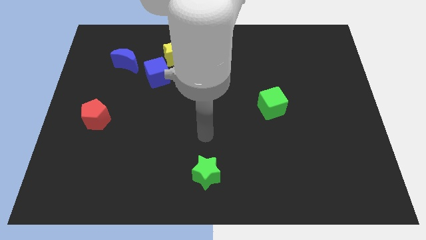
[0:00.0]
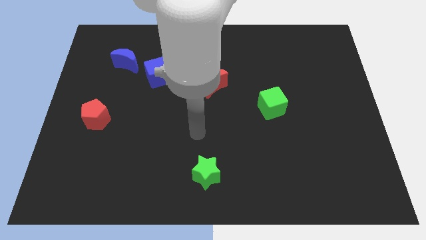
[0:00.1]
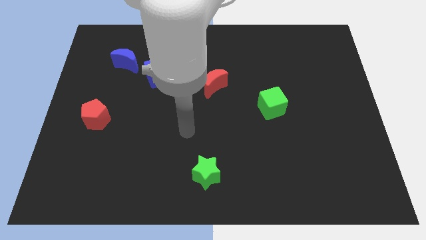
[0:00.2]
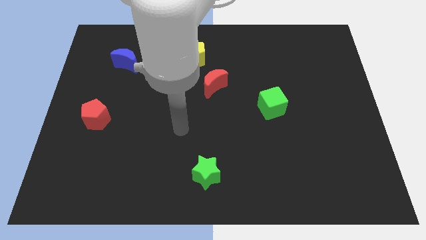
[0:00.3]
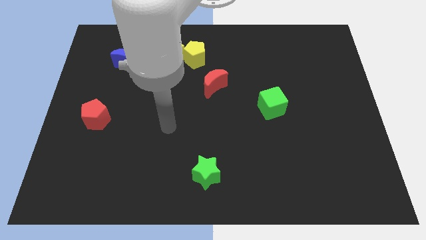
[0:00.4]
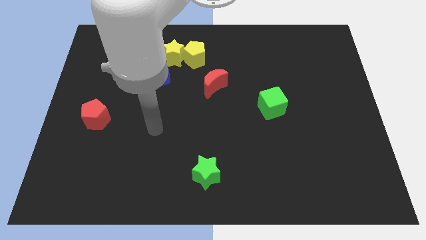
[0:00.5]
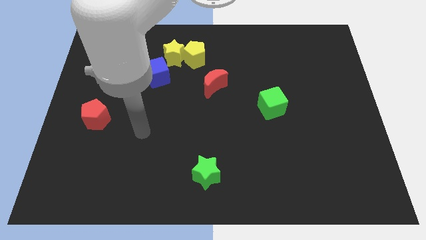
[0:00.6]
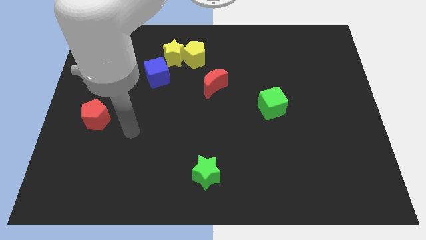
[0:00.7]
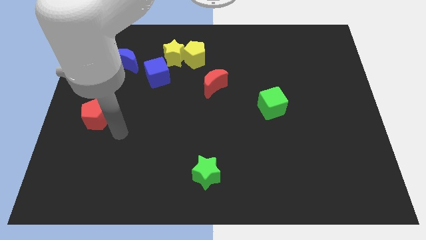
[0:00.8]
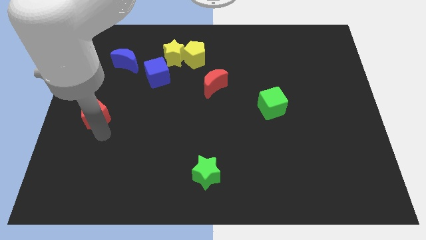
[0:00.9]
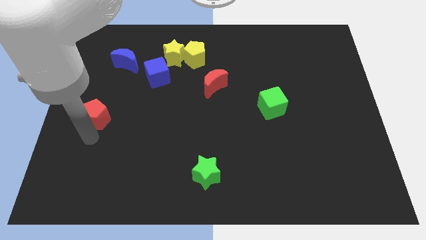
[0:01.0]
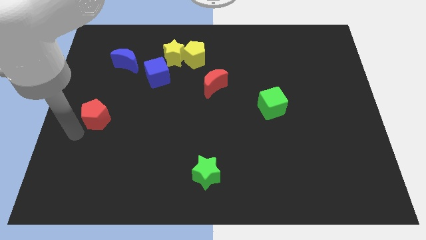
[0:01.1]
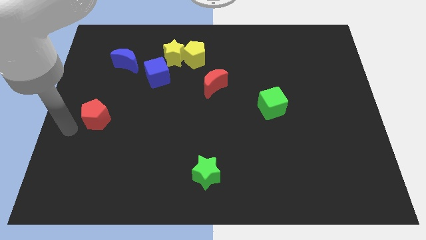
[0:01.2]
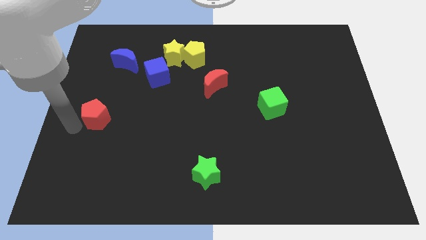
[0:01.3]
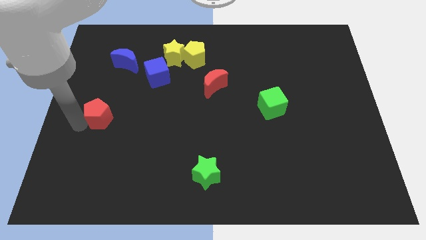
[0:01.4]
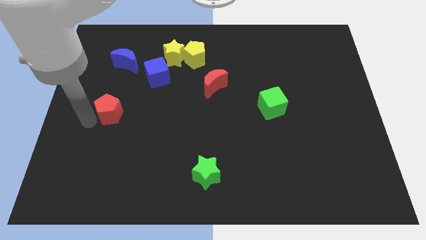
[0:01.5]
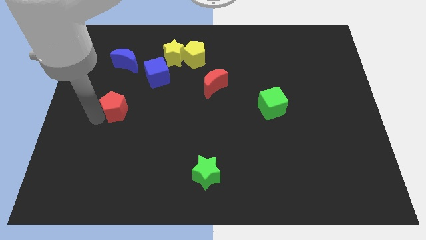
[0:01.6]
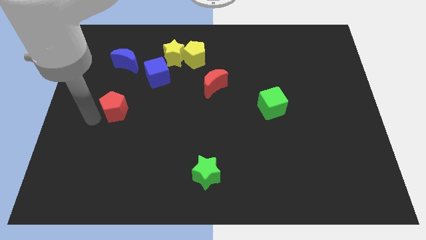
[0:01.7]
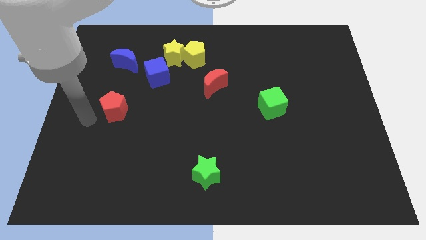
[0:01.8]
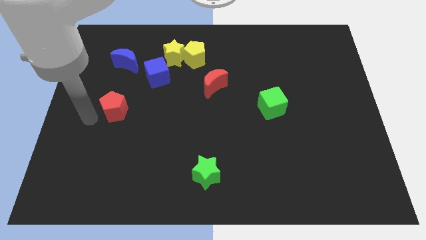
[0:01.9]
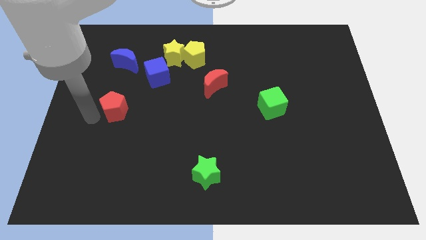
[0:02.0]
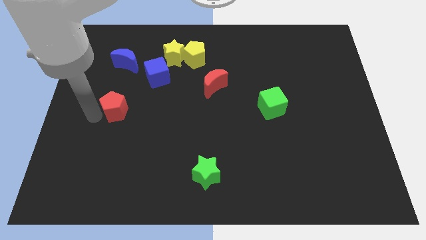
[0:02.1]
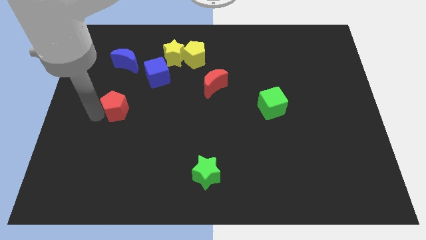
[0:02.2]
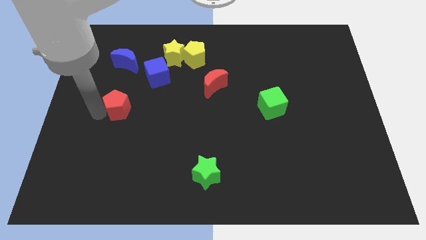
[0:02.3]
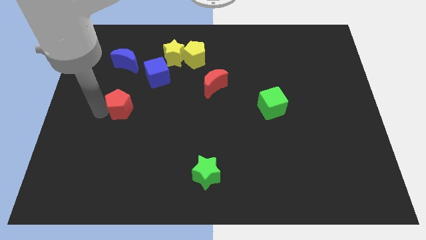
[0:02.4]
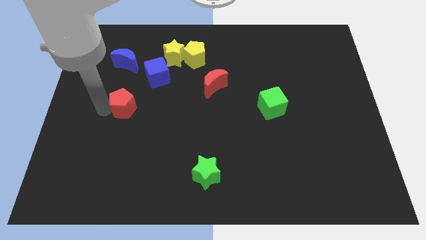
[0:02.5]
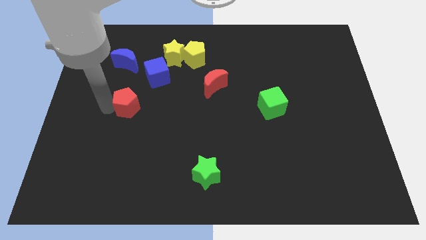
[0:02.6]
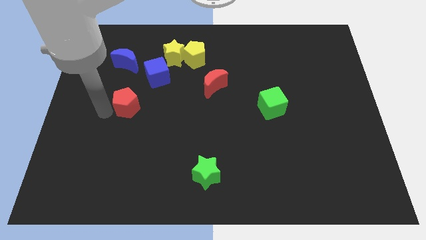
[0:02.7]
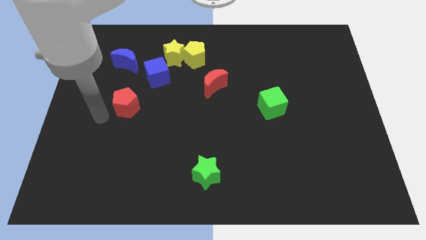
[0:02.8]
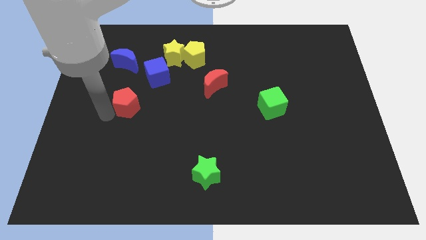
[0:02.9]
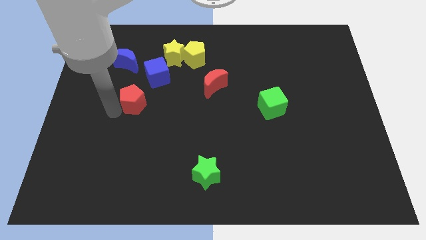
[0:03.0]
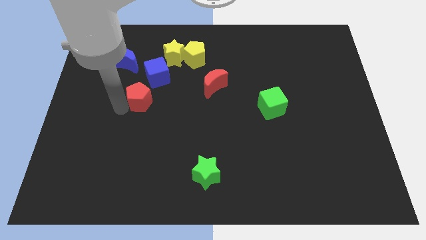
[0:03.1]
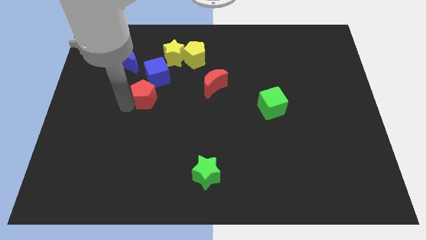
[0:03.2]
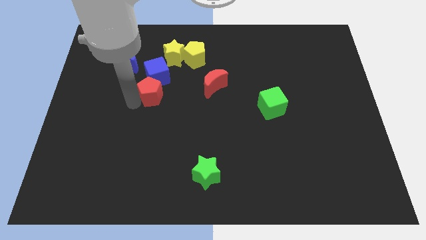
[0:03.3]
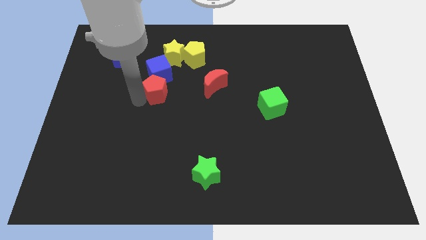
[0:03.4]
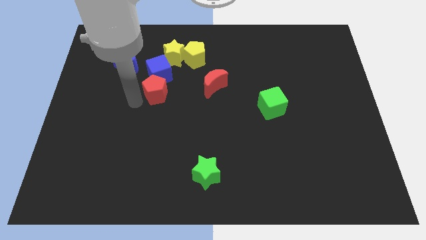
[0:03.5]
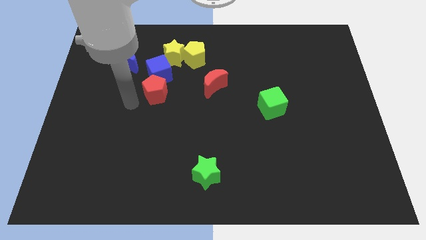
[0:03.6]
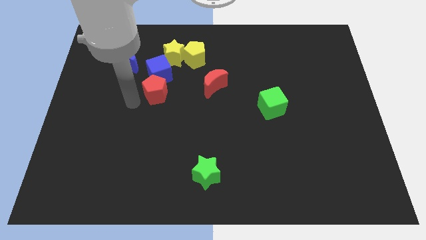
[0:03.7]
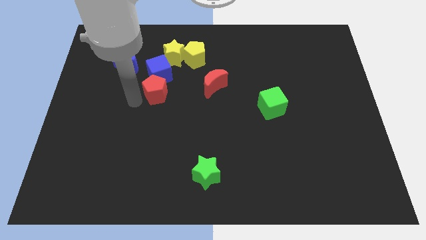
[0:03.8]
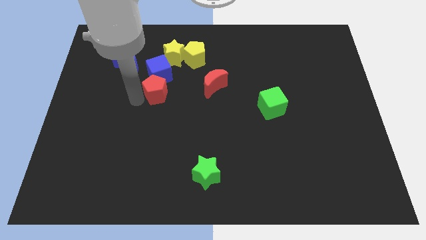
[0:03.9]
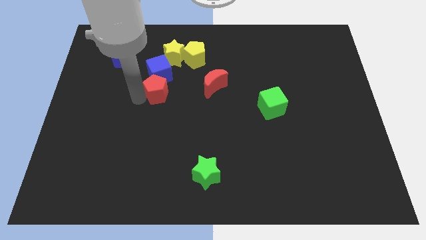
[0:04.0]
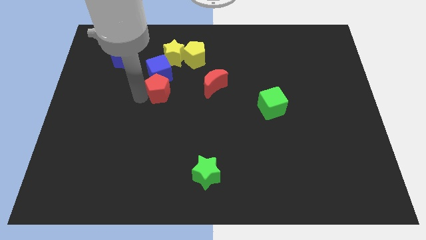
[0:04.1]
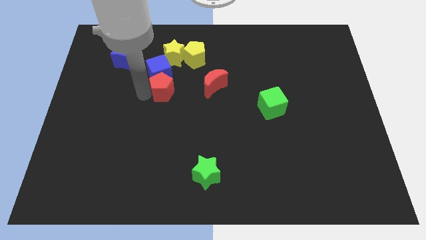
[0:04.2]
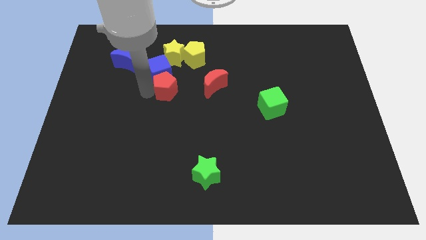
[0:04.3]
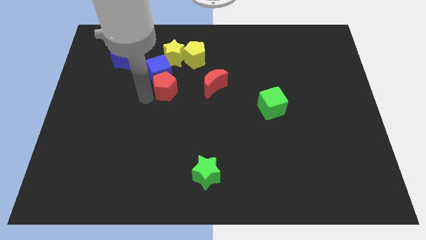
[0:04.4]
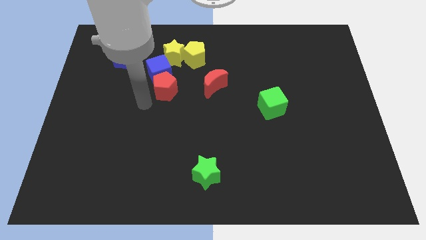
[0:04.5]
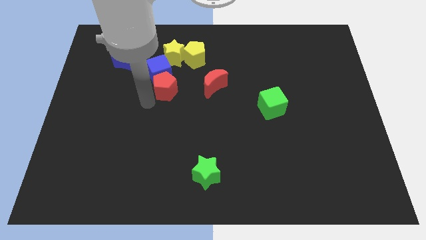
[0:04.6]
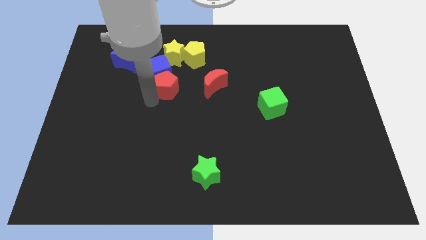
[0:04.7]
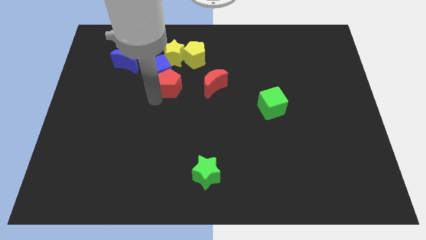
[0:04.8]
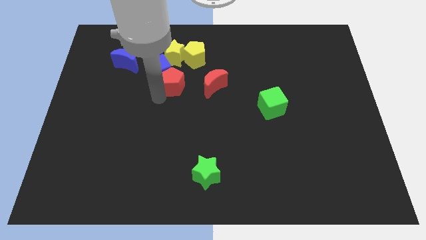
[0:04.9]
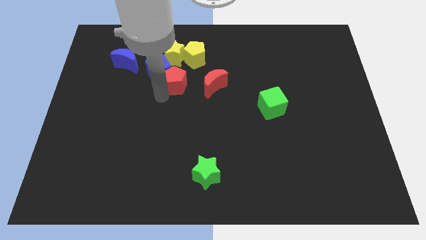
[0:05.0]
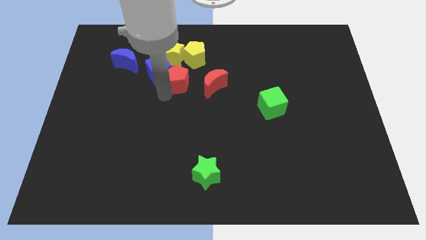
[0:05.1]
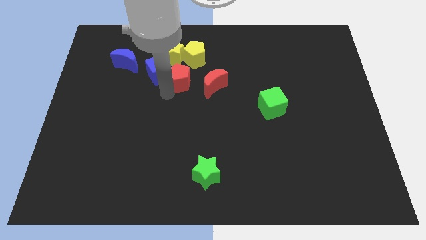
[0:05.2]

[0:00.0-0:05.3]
put the red pentagon to the top left of the red moon

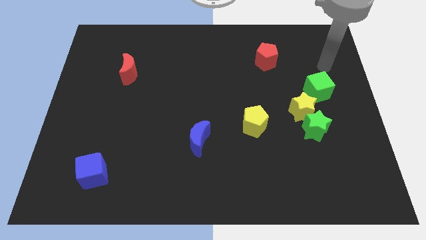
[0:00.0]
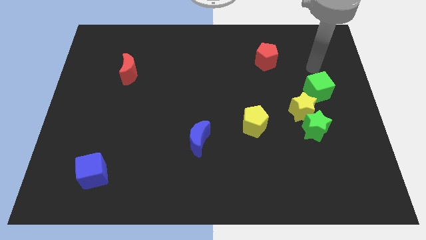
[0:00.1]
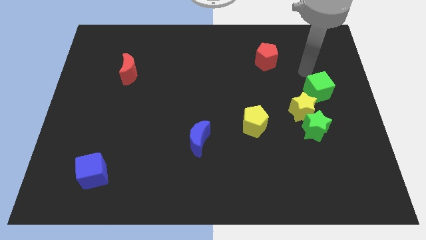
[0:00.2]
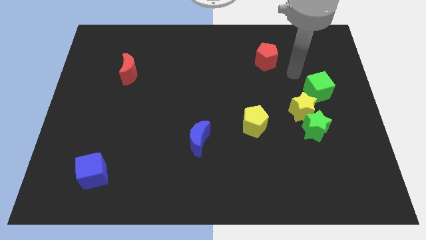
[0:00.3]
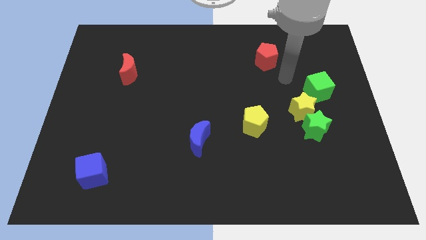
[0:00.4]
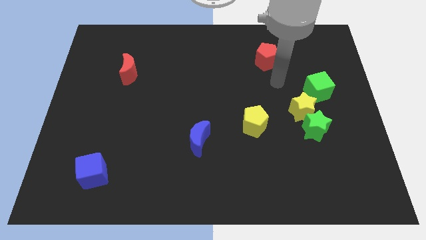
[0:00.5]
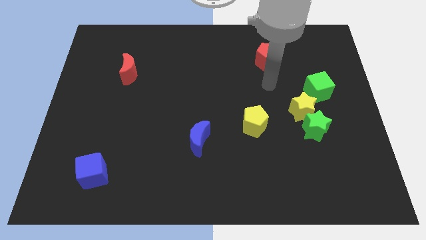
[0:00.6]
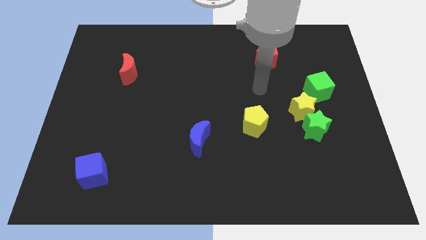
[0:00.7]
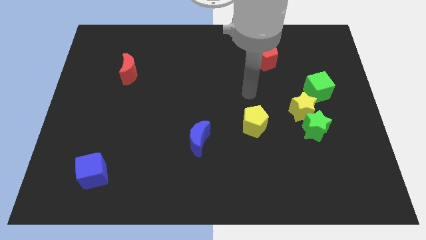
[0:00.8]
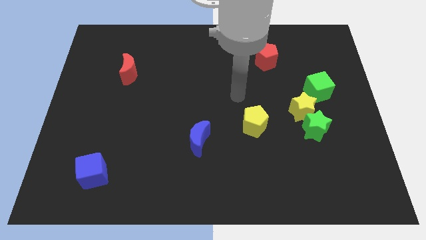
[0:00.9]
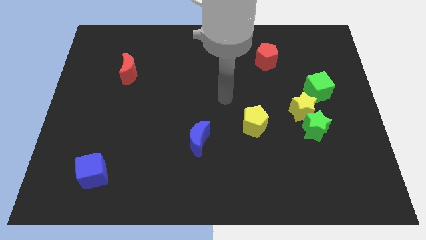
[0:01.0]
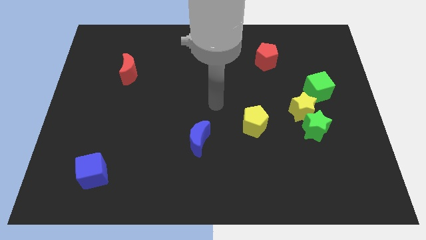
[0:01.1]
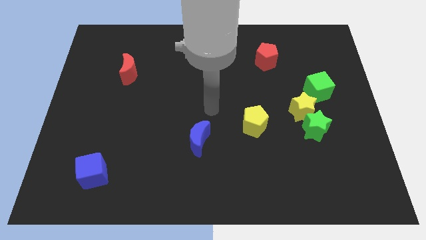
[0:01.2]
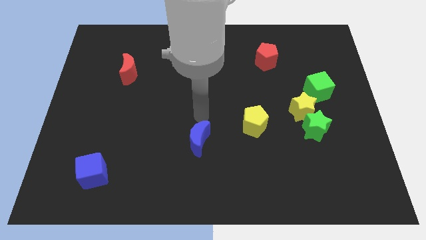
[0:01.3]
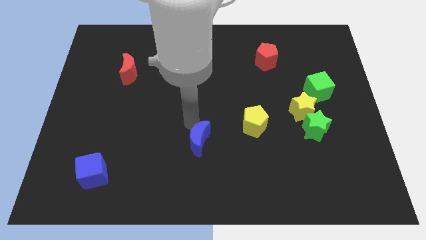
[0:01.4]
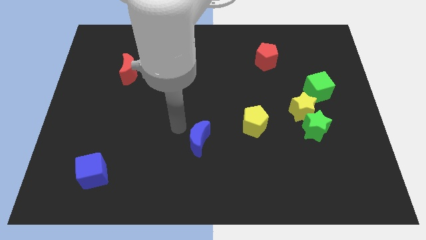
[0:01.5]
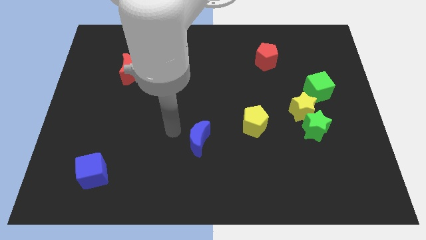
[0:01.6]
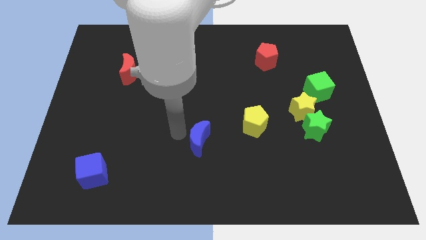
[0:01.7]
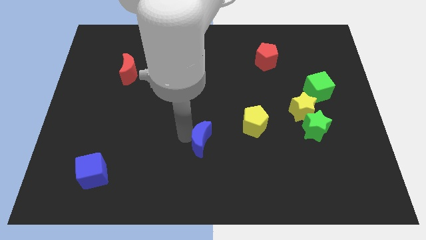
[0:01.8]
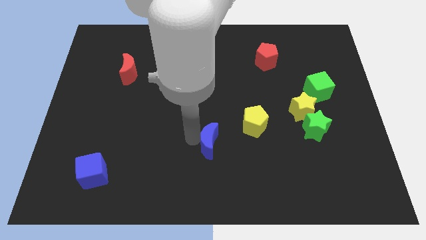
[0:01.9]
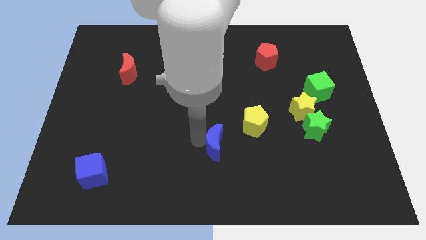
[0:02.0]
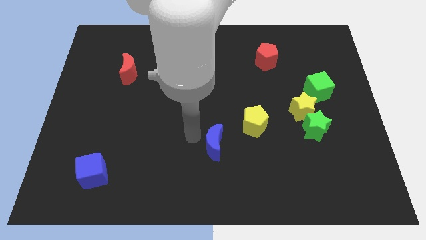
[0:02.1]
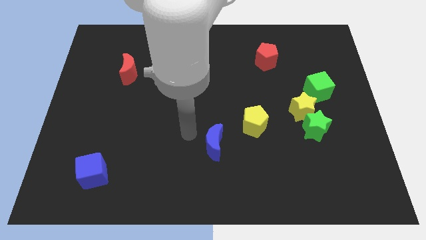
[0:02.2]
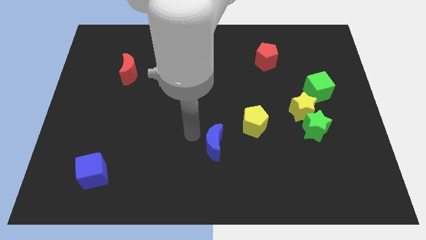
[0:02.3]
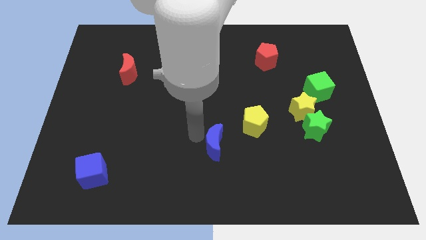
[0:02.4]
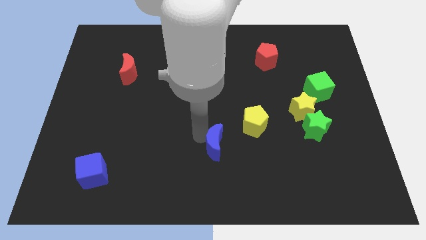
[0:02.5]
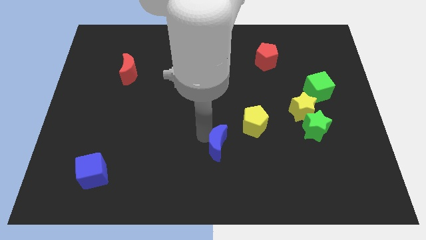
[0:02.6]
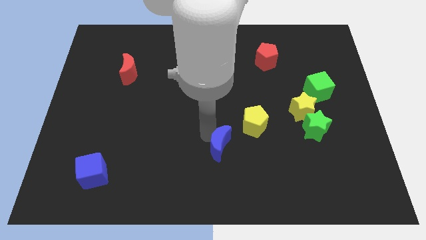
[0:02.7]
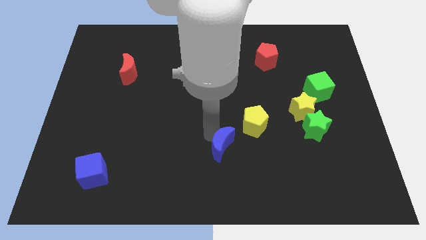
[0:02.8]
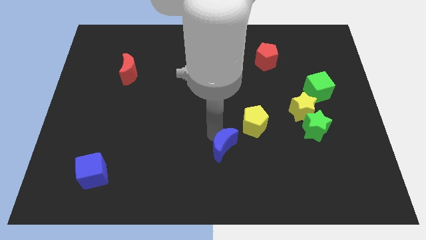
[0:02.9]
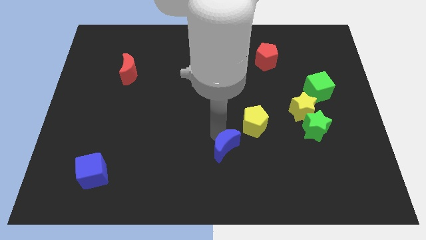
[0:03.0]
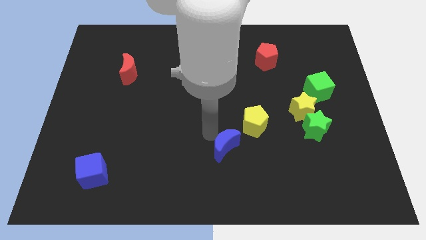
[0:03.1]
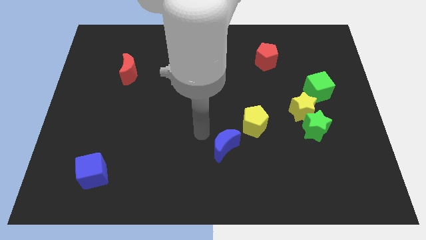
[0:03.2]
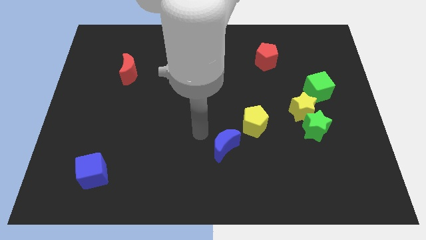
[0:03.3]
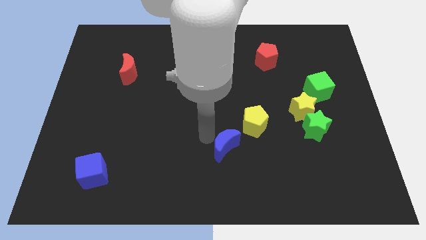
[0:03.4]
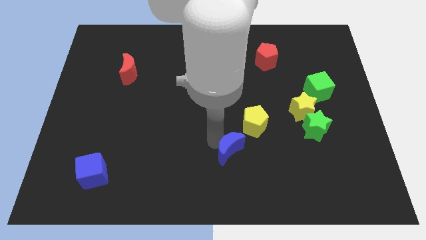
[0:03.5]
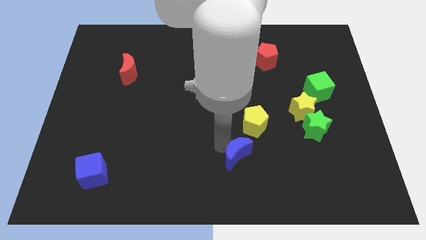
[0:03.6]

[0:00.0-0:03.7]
slide the blue moon to the bottom of the yellow pentagon
